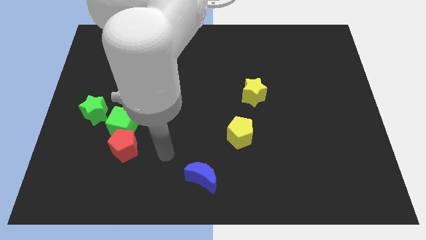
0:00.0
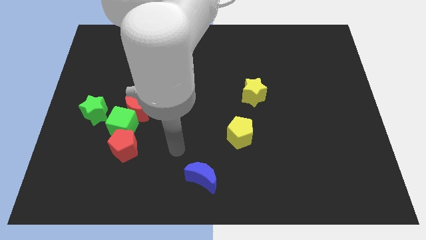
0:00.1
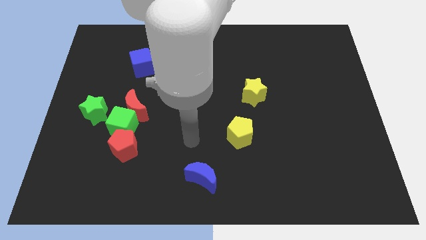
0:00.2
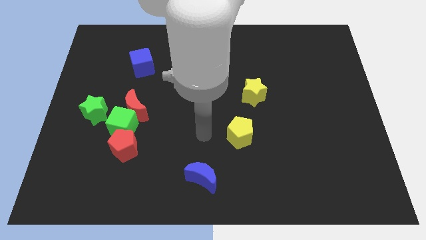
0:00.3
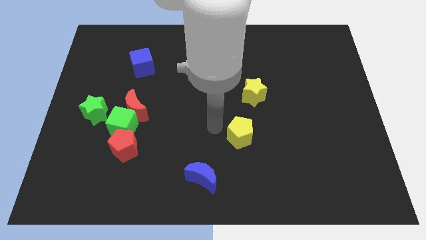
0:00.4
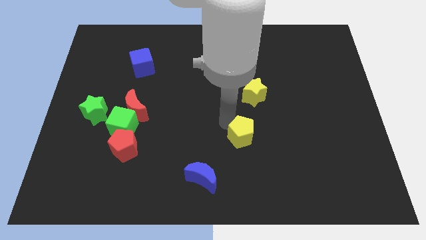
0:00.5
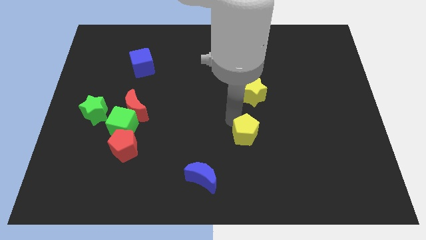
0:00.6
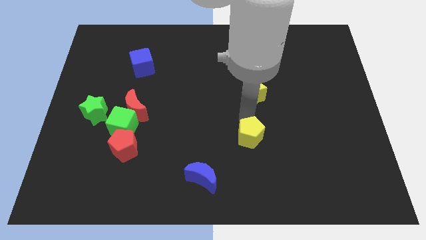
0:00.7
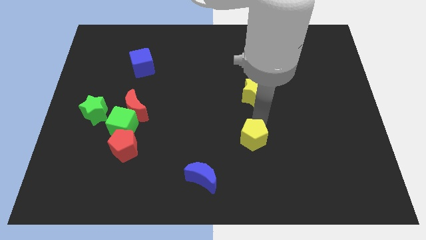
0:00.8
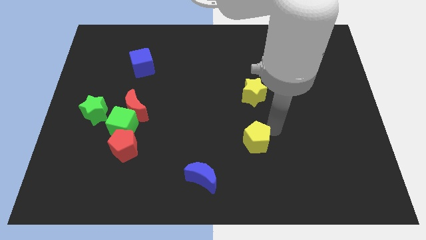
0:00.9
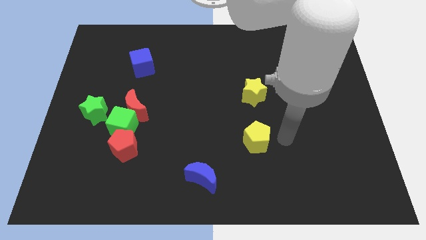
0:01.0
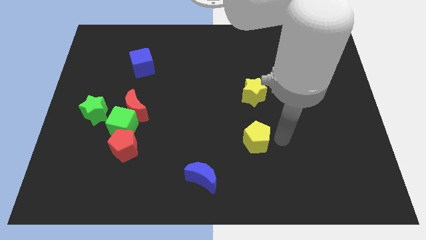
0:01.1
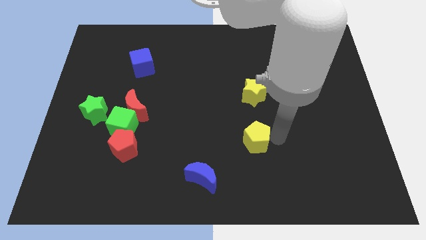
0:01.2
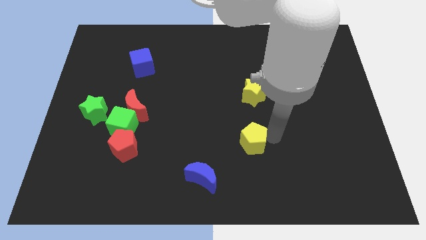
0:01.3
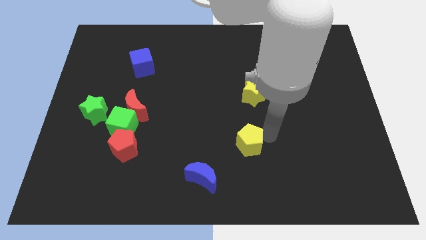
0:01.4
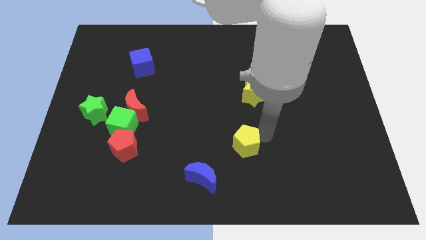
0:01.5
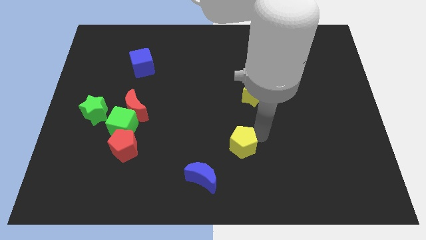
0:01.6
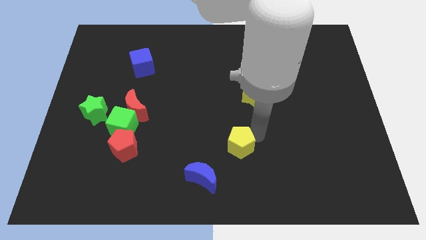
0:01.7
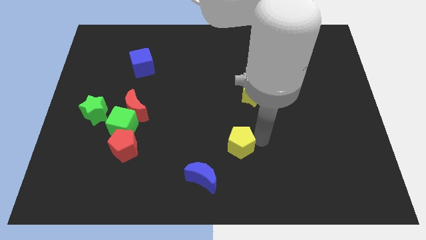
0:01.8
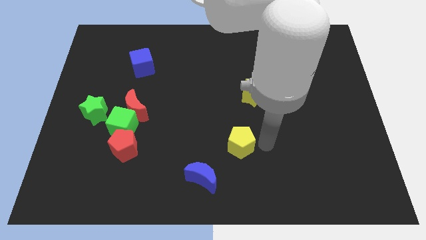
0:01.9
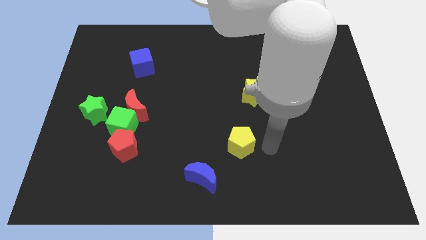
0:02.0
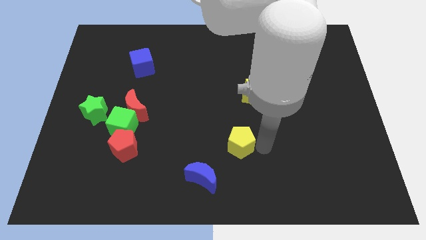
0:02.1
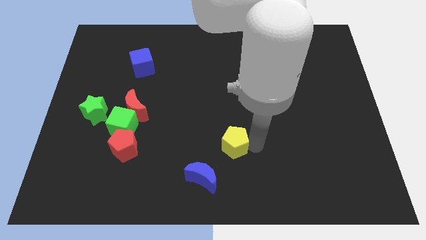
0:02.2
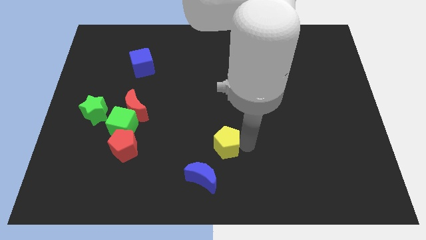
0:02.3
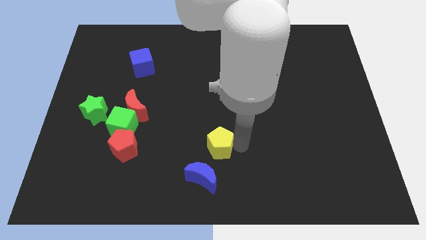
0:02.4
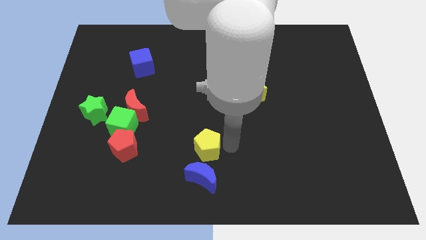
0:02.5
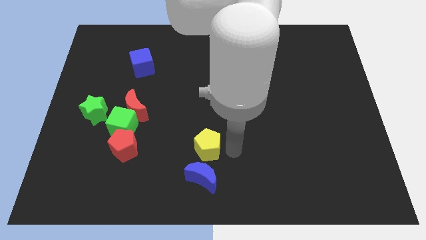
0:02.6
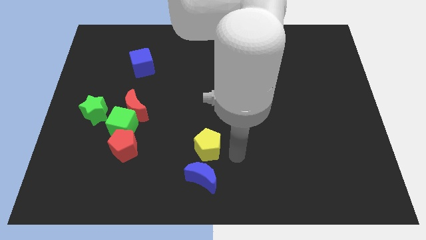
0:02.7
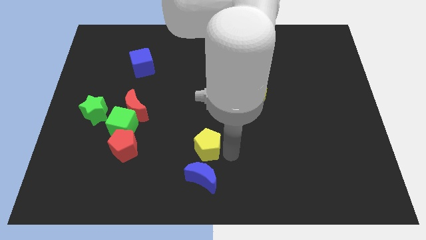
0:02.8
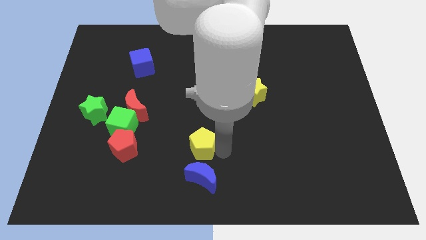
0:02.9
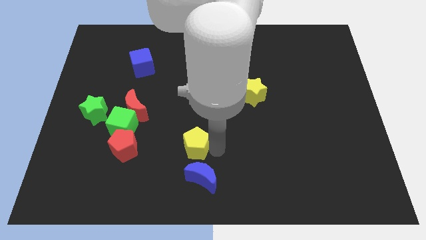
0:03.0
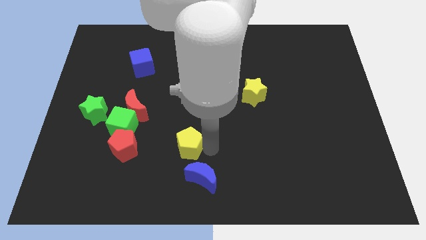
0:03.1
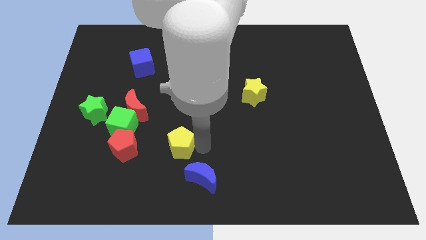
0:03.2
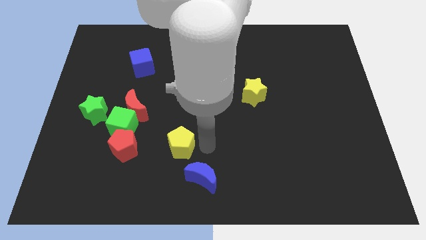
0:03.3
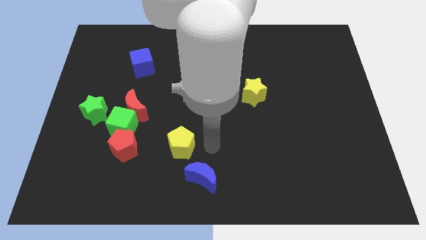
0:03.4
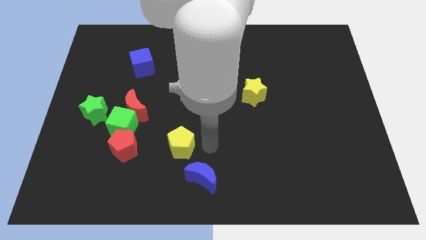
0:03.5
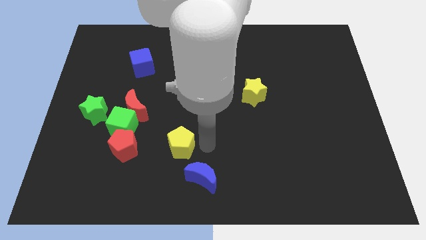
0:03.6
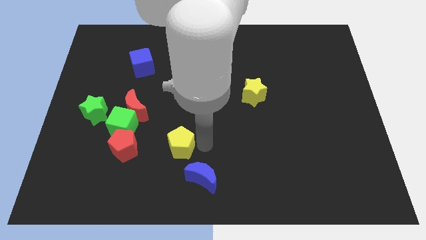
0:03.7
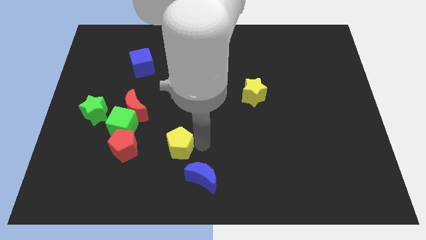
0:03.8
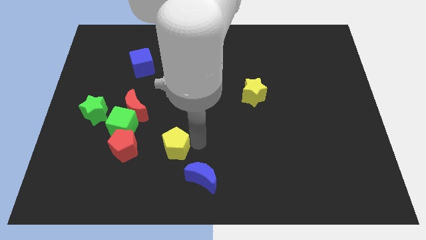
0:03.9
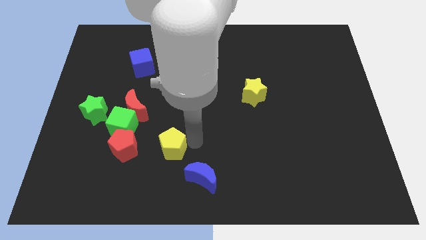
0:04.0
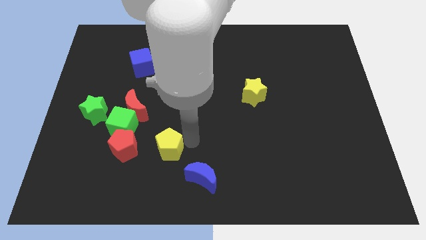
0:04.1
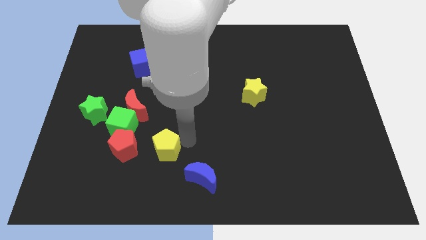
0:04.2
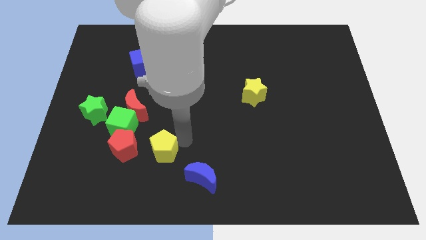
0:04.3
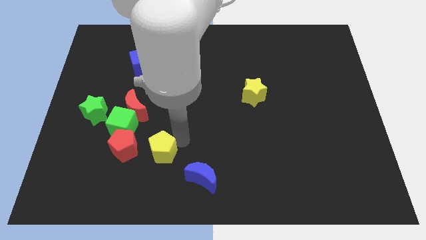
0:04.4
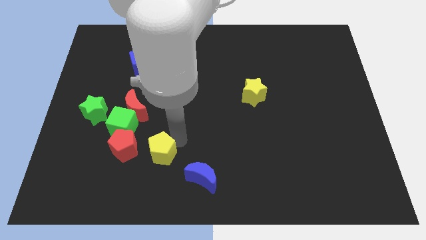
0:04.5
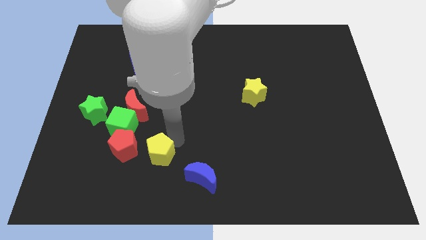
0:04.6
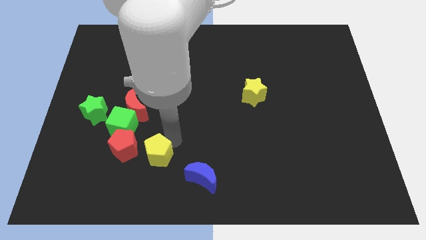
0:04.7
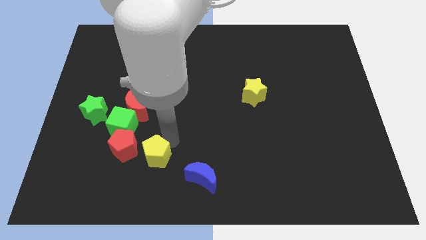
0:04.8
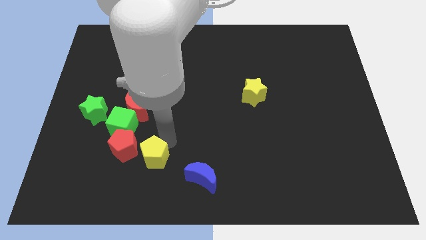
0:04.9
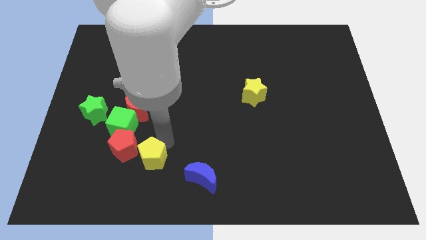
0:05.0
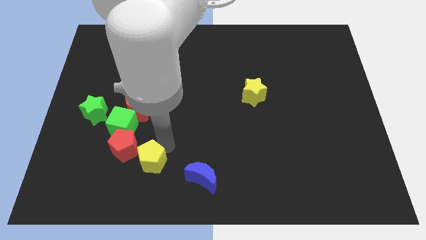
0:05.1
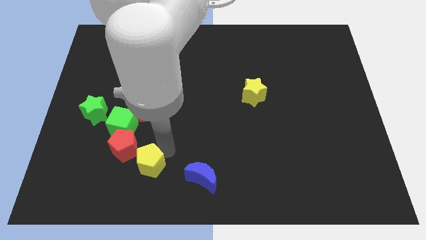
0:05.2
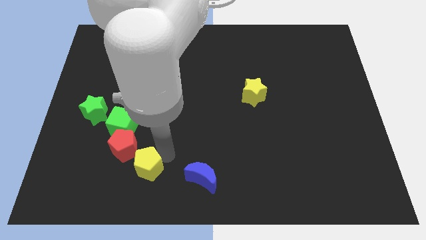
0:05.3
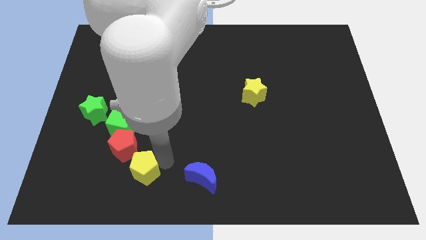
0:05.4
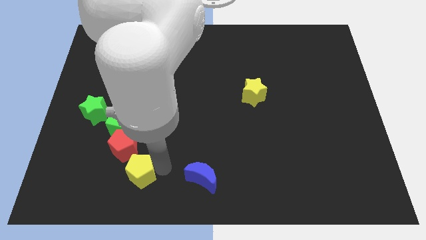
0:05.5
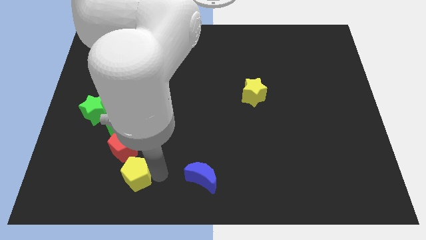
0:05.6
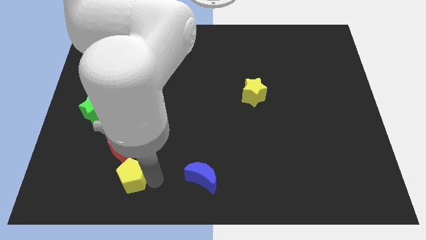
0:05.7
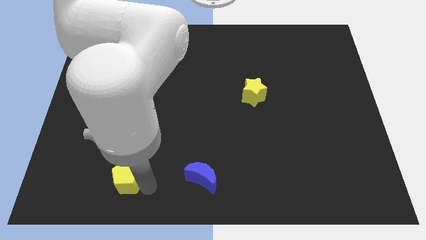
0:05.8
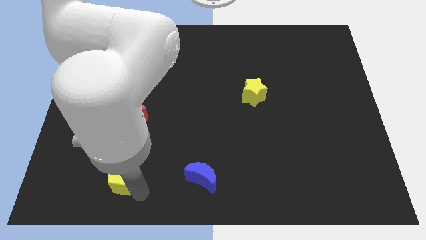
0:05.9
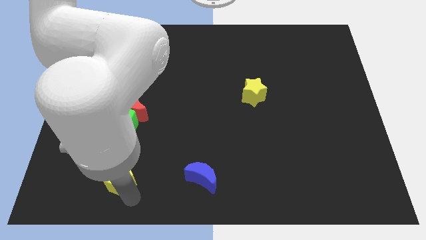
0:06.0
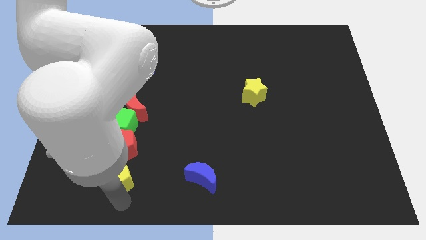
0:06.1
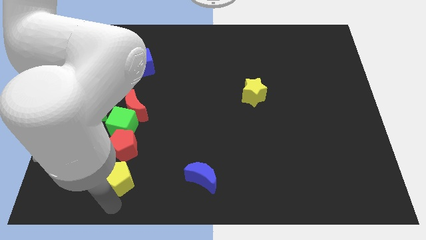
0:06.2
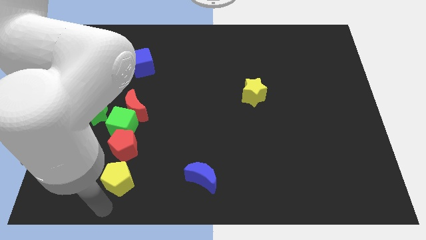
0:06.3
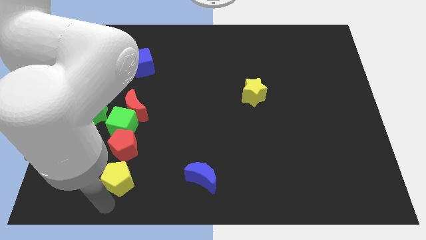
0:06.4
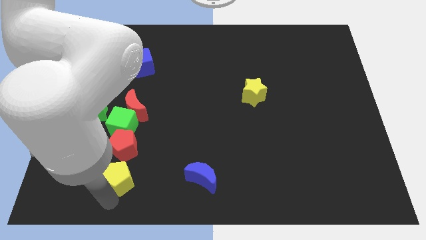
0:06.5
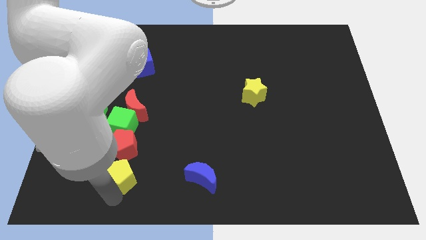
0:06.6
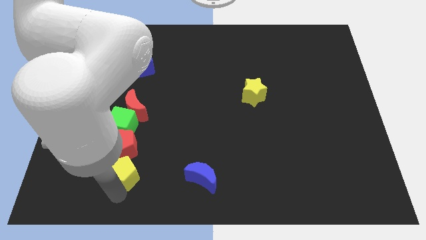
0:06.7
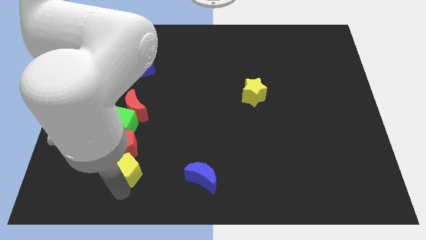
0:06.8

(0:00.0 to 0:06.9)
push the yellow pentagon close to the red pentagon

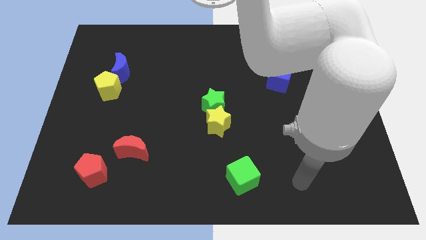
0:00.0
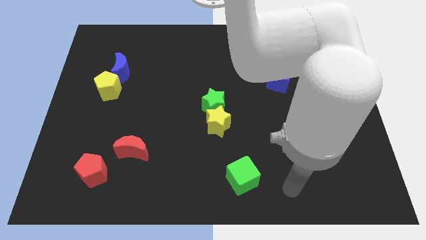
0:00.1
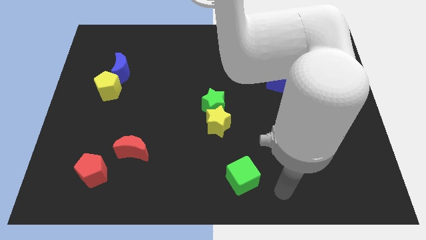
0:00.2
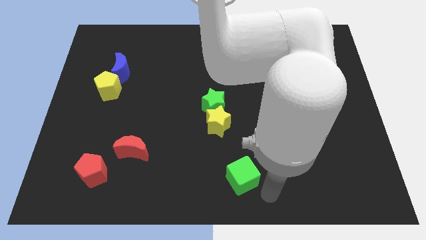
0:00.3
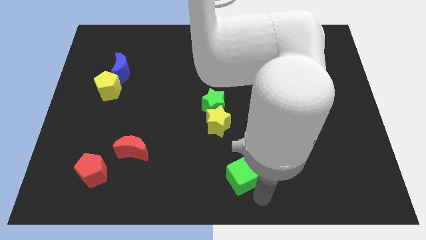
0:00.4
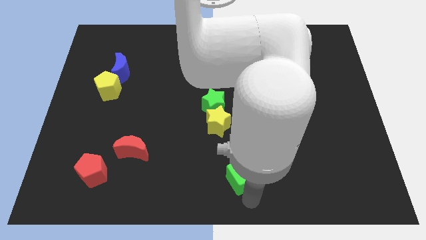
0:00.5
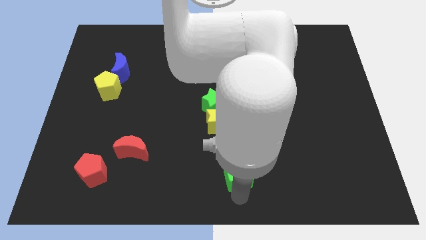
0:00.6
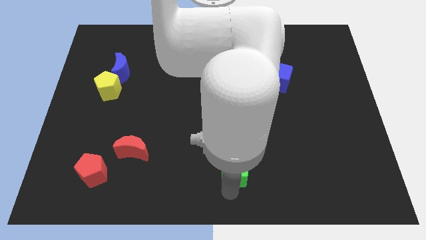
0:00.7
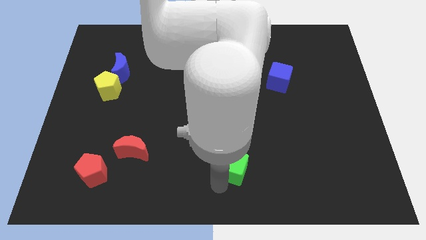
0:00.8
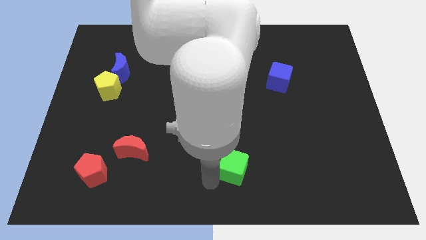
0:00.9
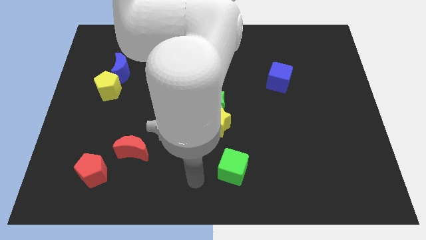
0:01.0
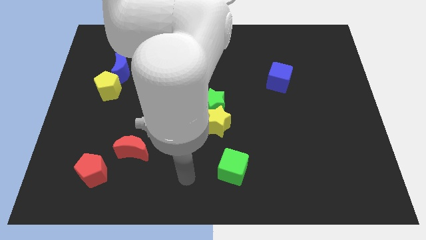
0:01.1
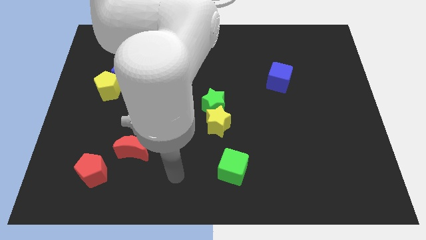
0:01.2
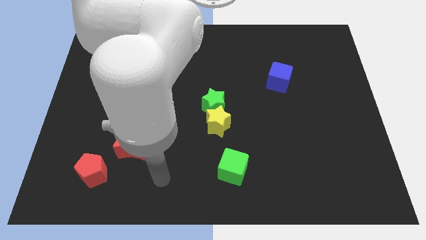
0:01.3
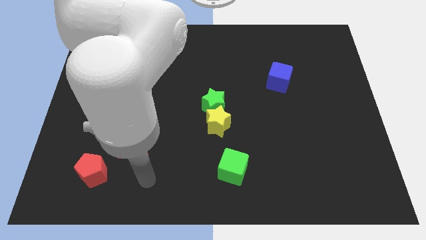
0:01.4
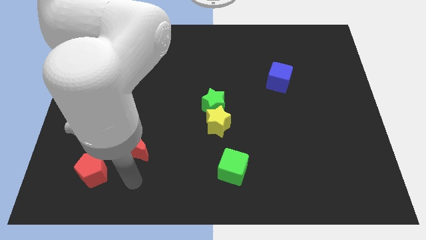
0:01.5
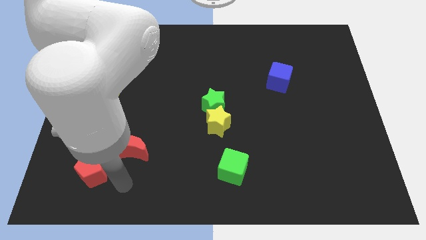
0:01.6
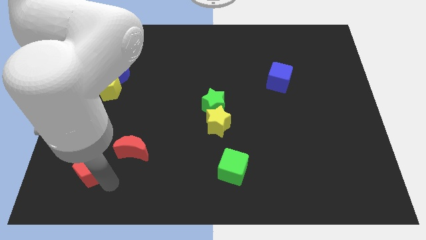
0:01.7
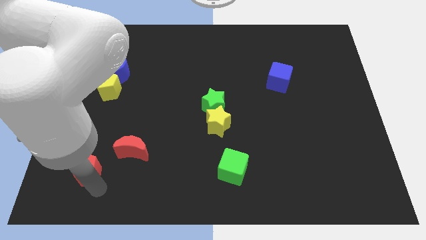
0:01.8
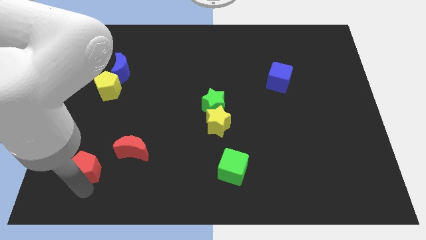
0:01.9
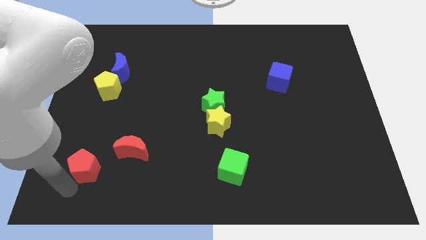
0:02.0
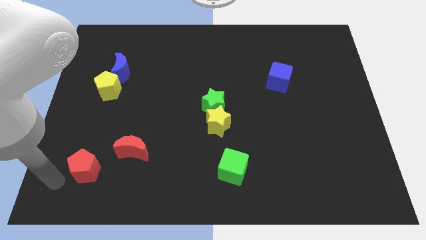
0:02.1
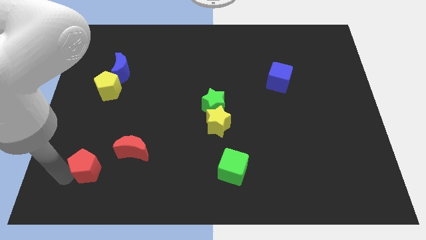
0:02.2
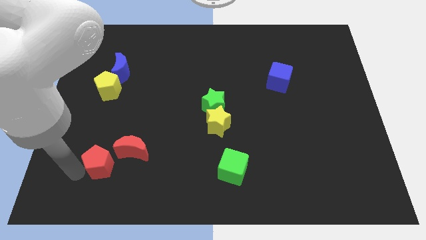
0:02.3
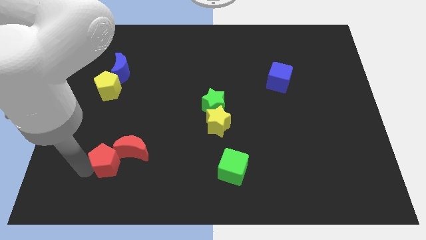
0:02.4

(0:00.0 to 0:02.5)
put the red pentagon next to the red moon
